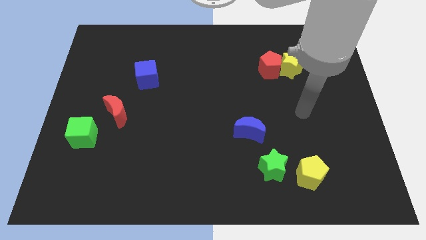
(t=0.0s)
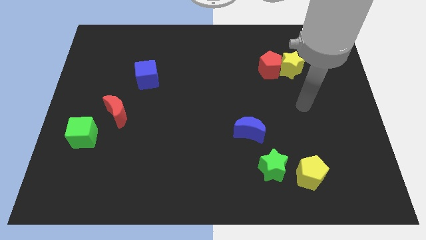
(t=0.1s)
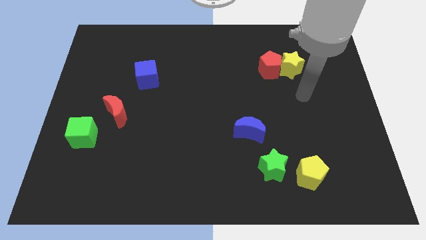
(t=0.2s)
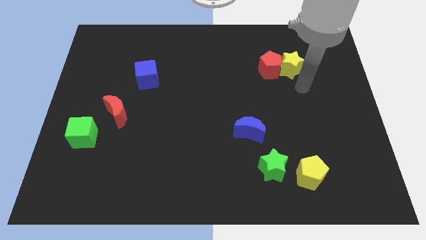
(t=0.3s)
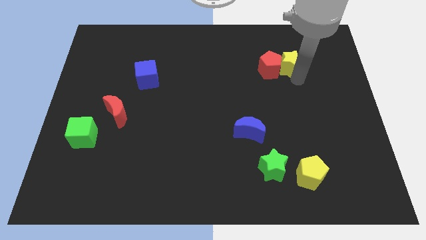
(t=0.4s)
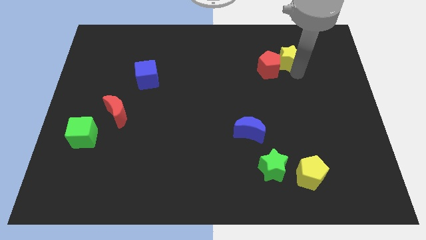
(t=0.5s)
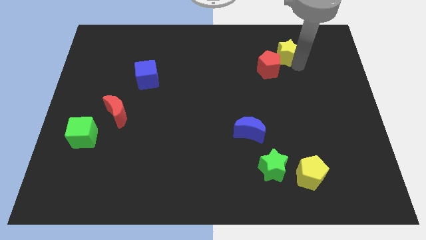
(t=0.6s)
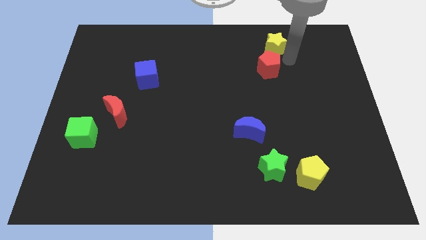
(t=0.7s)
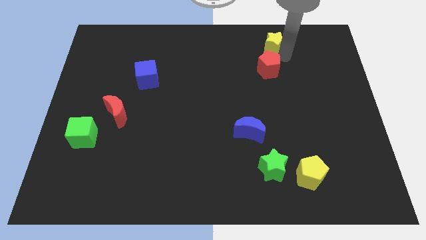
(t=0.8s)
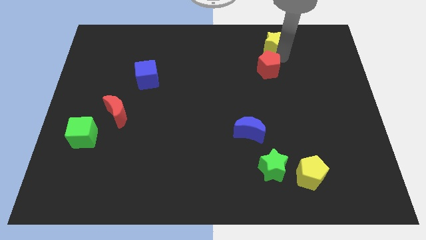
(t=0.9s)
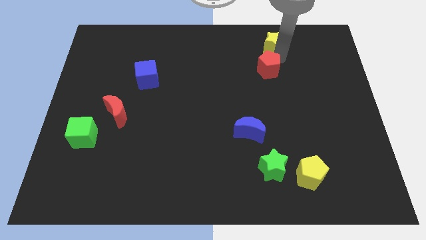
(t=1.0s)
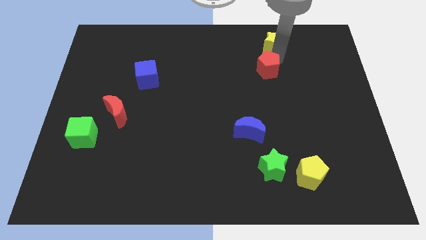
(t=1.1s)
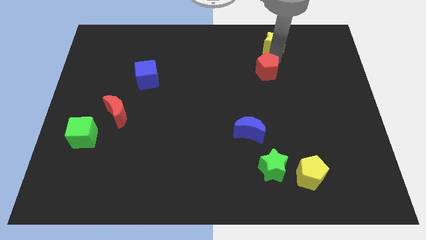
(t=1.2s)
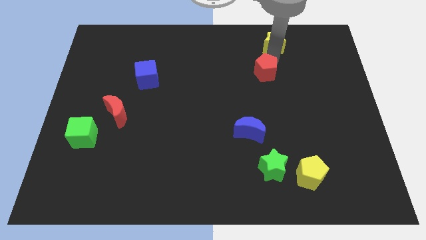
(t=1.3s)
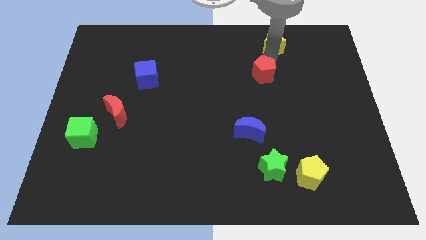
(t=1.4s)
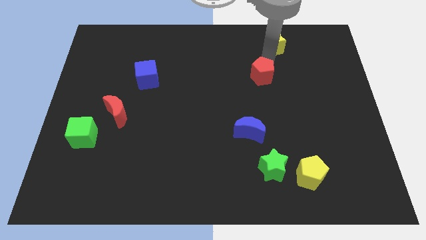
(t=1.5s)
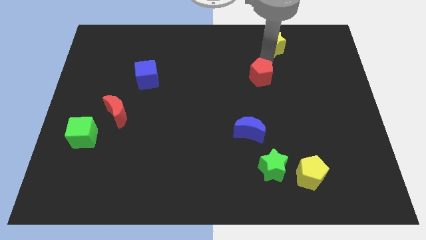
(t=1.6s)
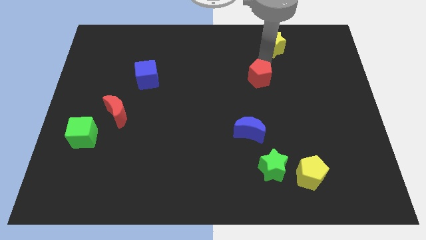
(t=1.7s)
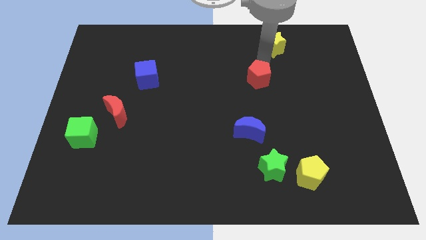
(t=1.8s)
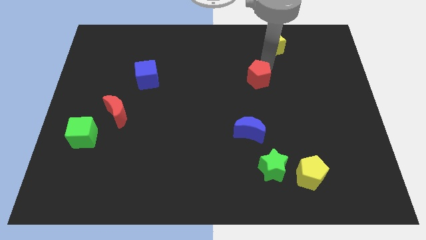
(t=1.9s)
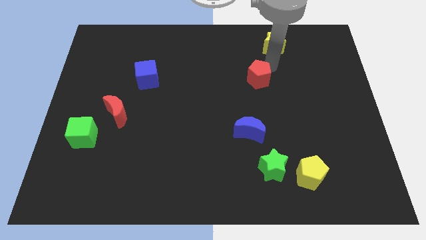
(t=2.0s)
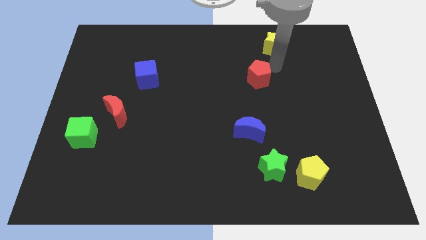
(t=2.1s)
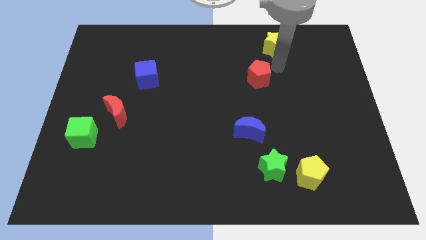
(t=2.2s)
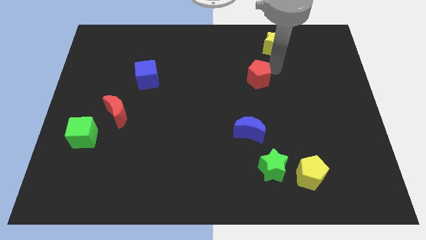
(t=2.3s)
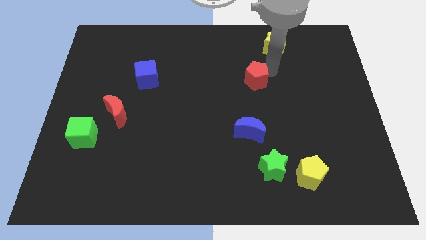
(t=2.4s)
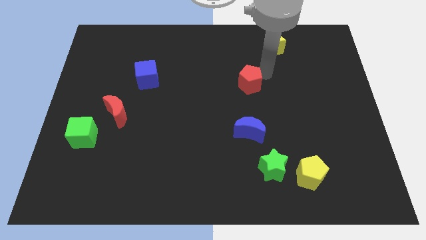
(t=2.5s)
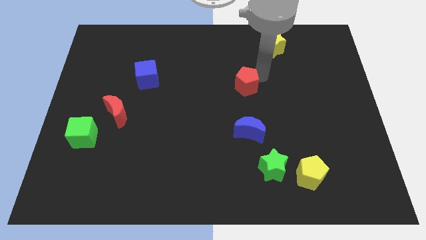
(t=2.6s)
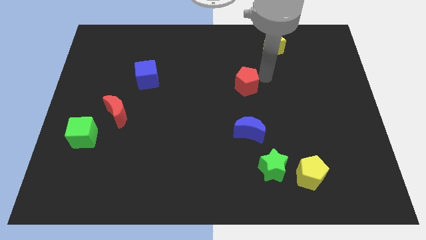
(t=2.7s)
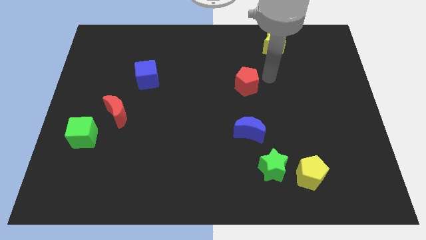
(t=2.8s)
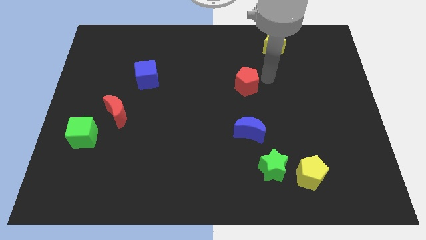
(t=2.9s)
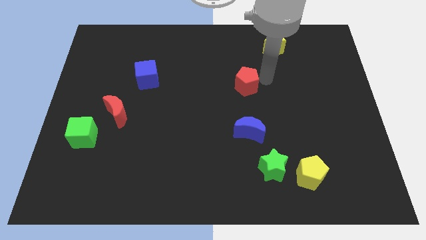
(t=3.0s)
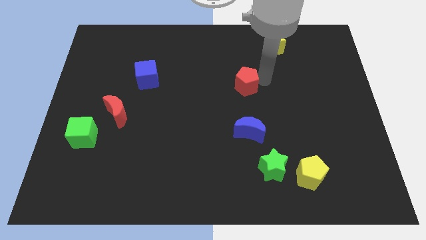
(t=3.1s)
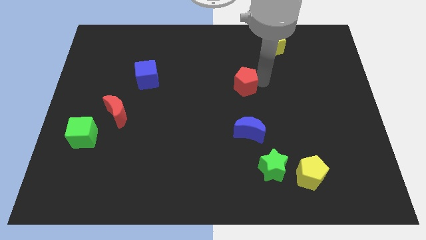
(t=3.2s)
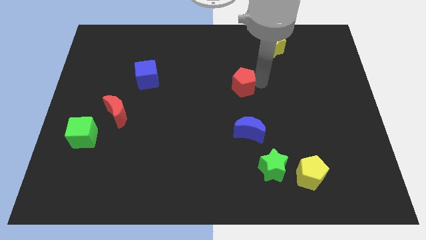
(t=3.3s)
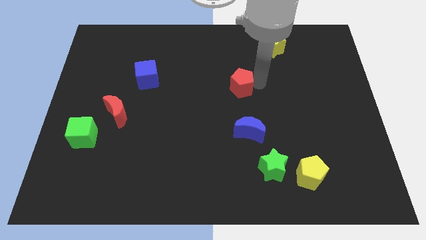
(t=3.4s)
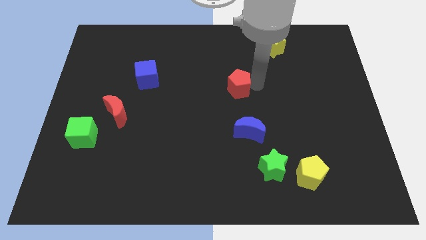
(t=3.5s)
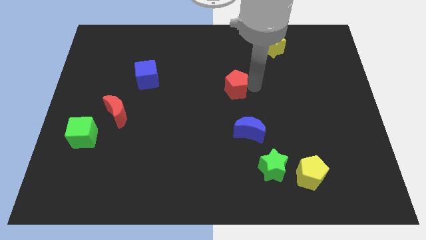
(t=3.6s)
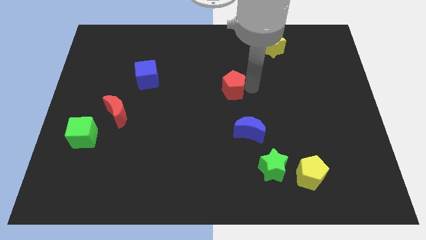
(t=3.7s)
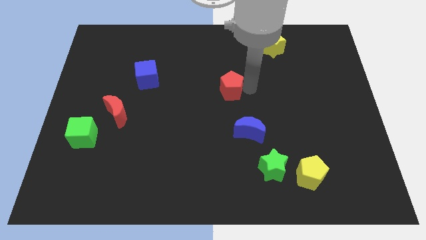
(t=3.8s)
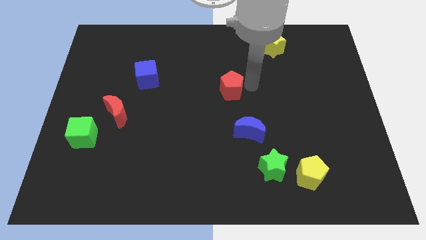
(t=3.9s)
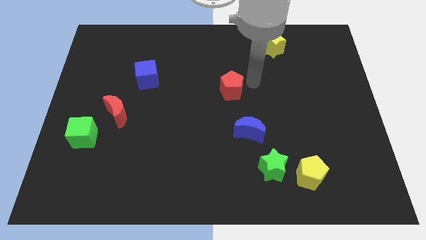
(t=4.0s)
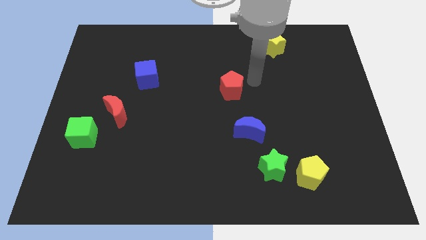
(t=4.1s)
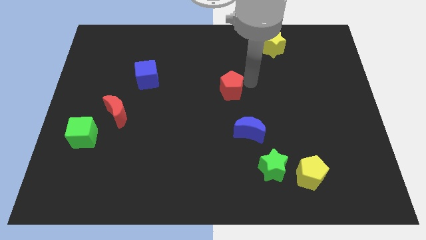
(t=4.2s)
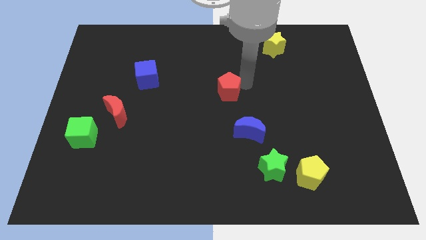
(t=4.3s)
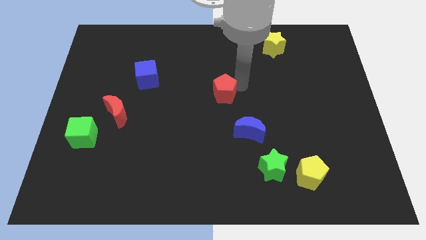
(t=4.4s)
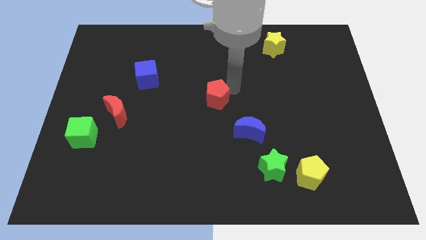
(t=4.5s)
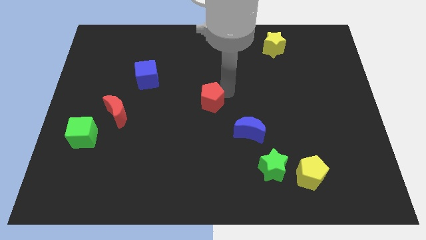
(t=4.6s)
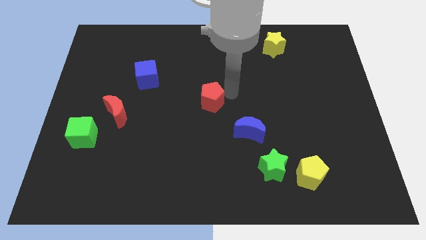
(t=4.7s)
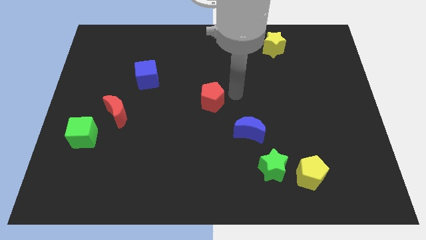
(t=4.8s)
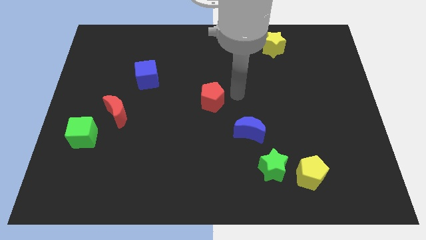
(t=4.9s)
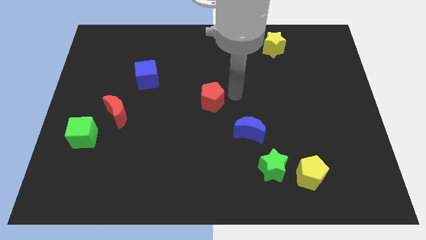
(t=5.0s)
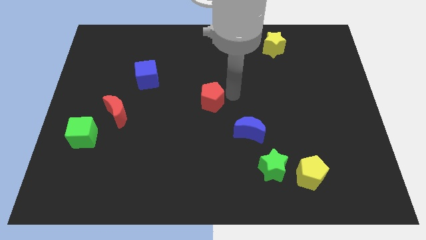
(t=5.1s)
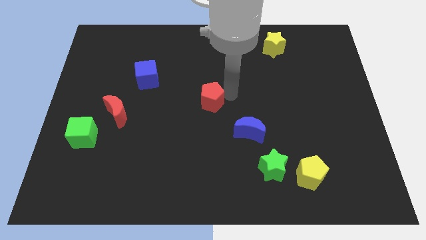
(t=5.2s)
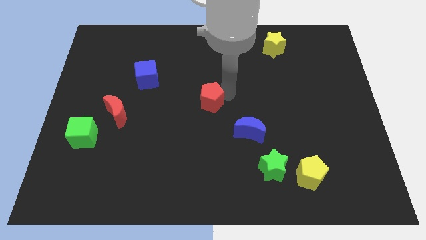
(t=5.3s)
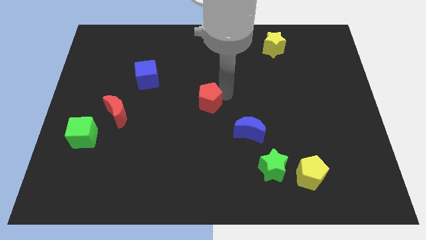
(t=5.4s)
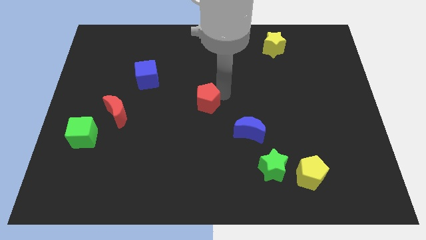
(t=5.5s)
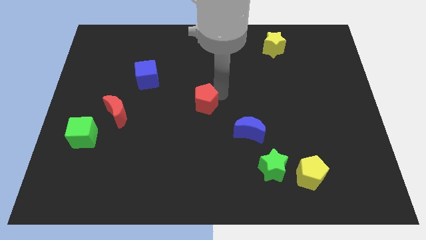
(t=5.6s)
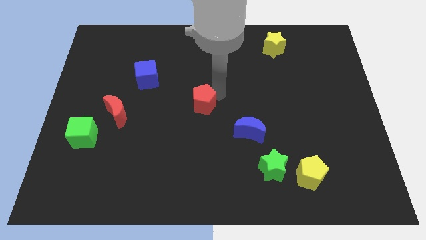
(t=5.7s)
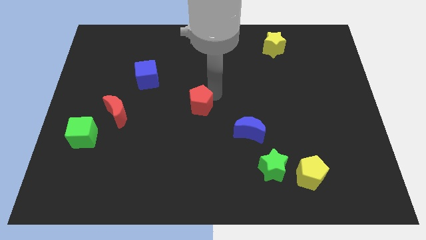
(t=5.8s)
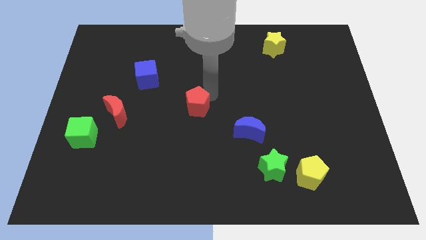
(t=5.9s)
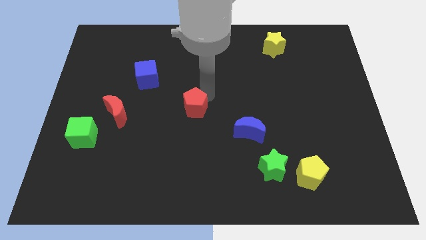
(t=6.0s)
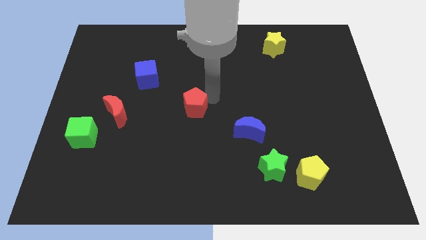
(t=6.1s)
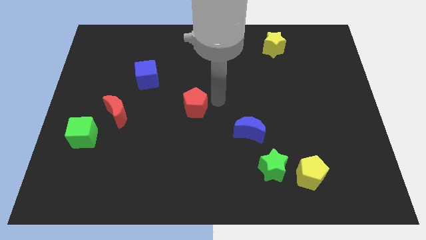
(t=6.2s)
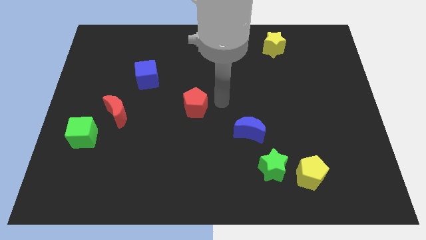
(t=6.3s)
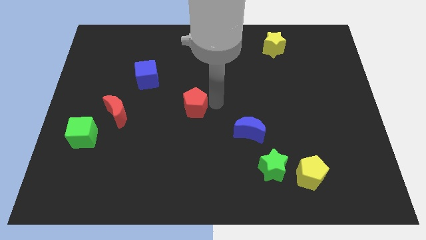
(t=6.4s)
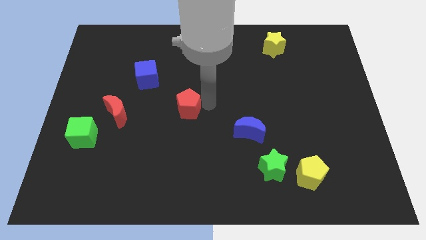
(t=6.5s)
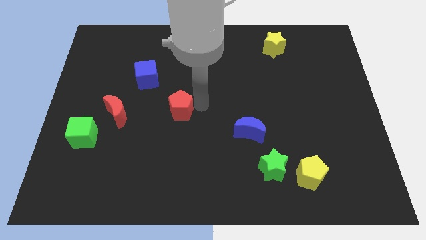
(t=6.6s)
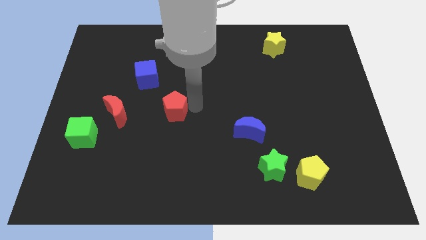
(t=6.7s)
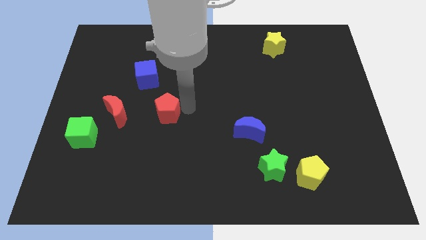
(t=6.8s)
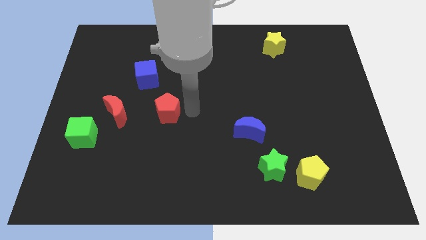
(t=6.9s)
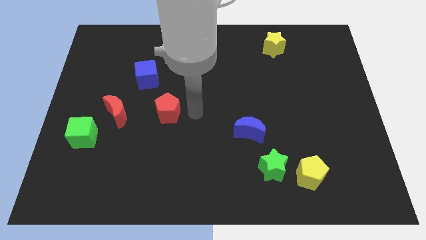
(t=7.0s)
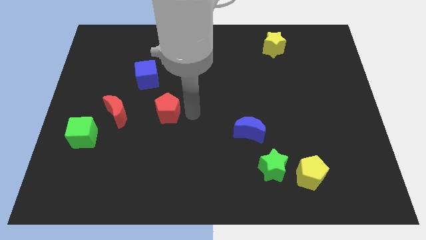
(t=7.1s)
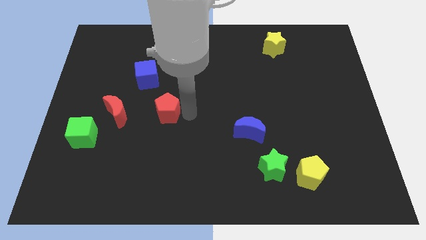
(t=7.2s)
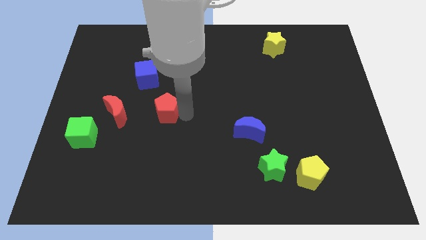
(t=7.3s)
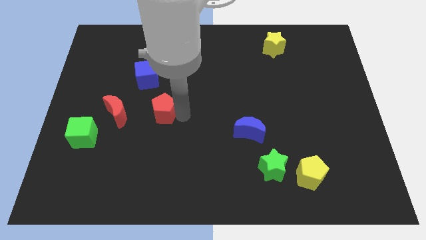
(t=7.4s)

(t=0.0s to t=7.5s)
push the red pentagon to the bottom side of the blue cube
